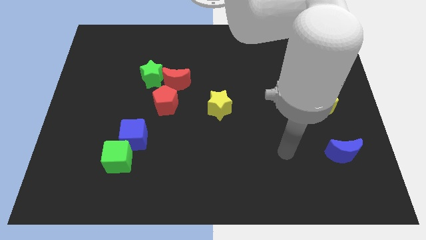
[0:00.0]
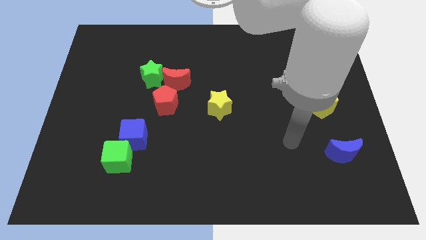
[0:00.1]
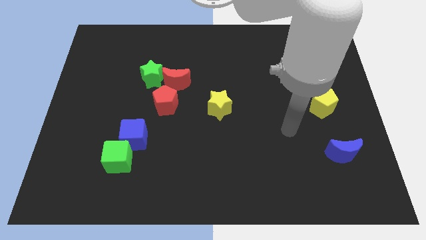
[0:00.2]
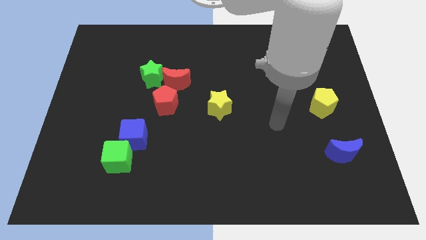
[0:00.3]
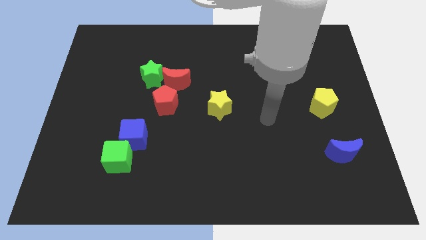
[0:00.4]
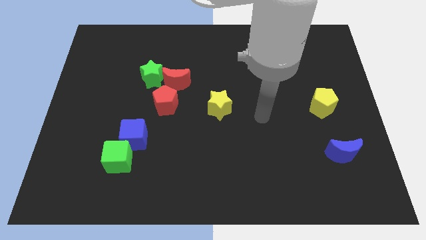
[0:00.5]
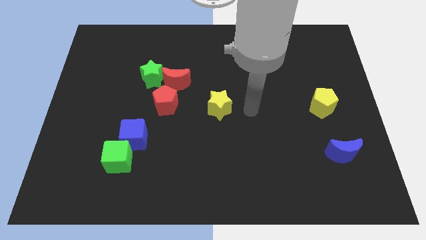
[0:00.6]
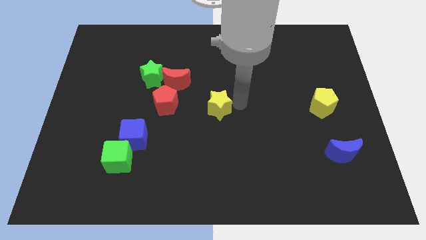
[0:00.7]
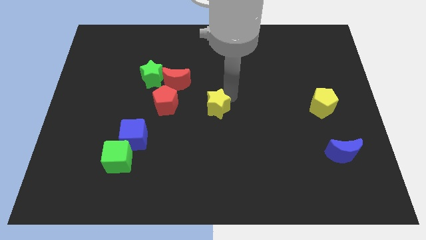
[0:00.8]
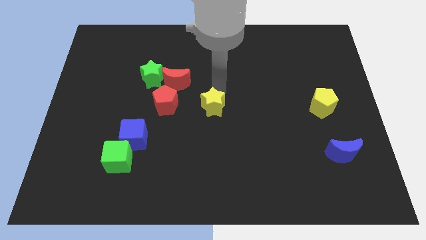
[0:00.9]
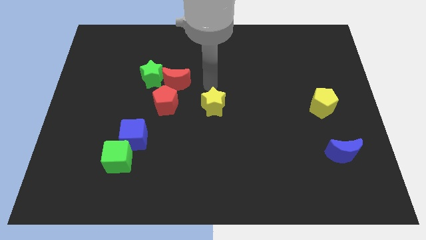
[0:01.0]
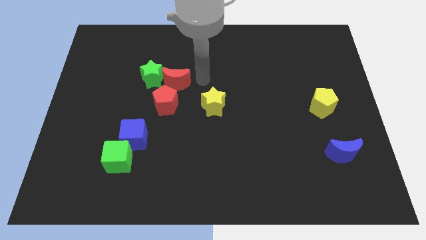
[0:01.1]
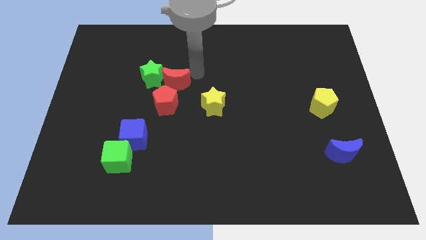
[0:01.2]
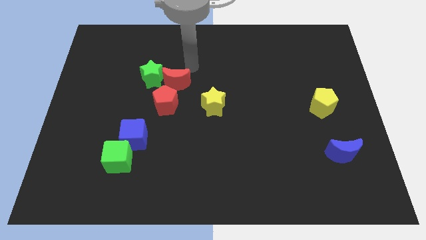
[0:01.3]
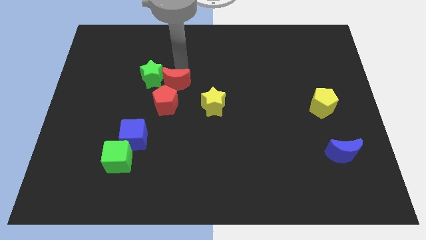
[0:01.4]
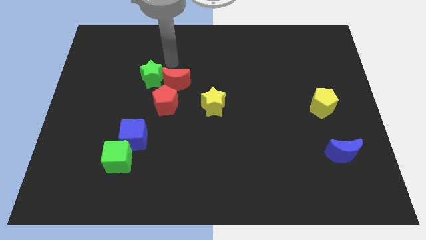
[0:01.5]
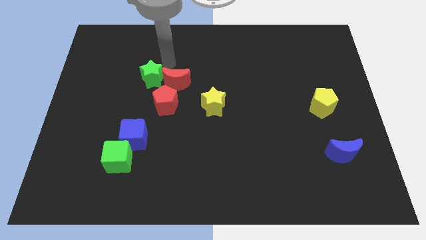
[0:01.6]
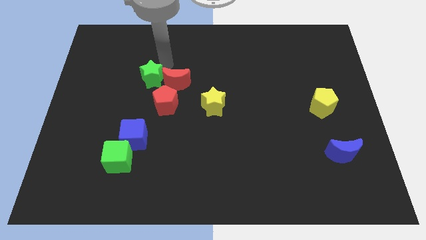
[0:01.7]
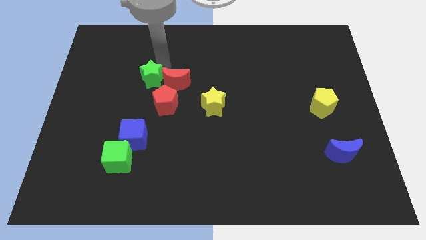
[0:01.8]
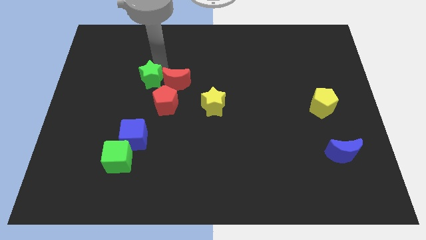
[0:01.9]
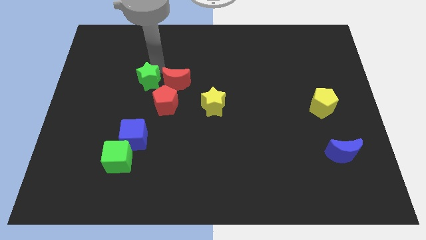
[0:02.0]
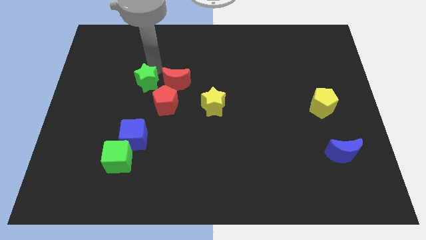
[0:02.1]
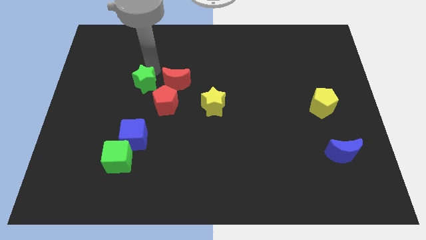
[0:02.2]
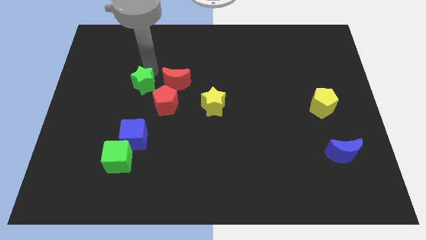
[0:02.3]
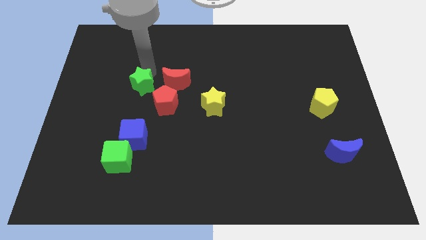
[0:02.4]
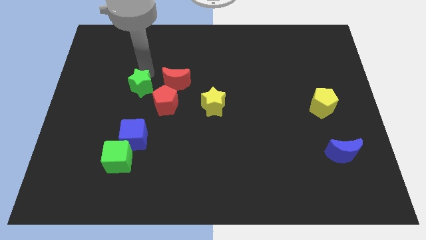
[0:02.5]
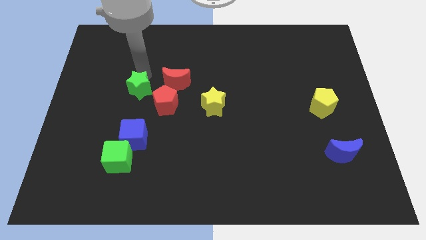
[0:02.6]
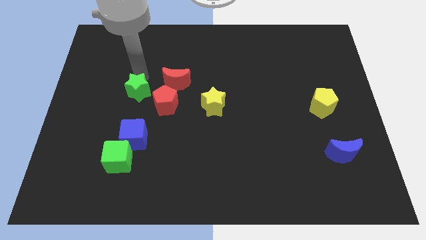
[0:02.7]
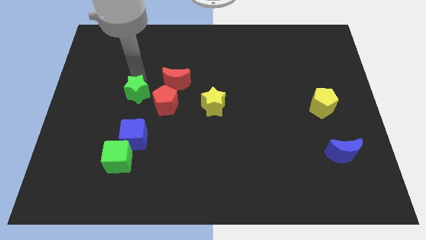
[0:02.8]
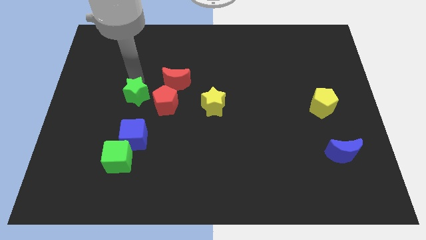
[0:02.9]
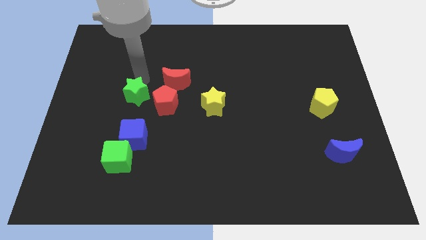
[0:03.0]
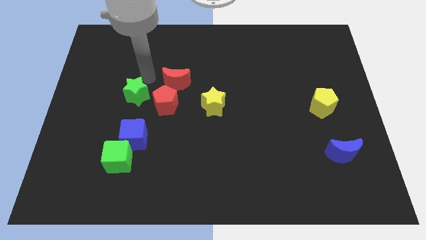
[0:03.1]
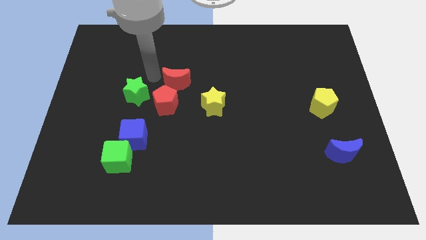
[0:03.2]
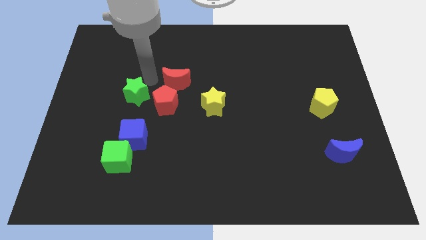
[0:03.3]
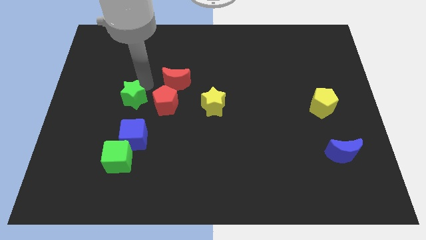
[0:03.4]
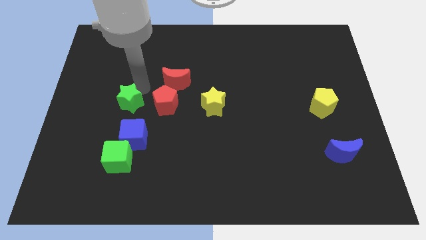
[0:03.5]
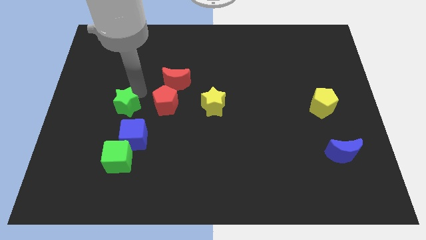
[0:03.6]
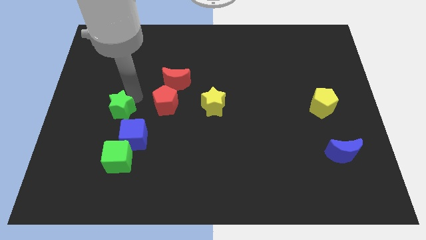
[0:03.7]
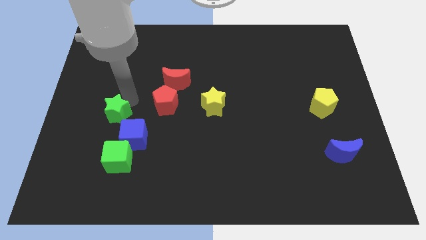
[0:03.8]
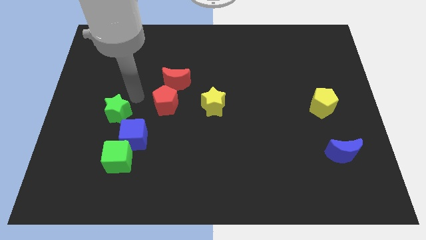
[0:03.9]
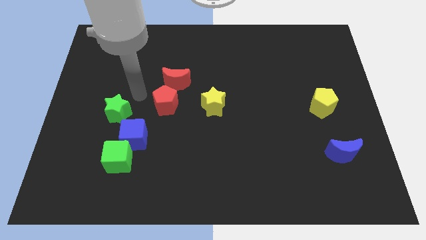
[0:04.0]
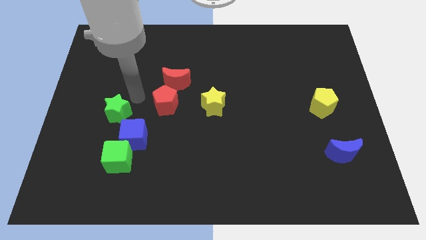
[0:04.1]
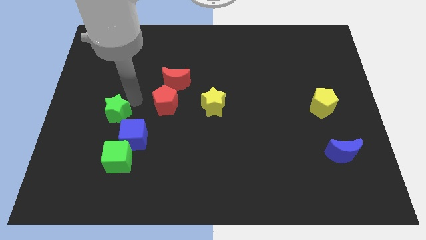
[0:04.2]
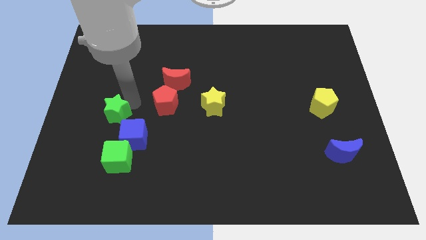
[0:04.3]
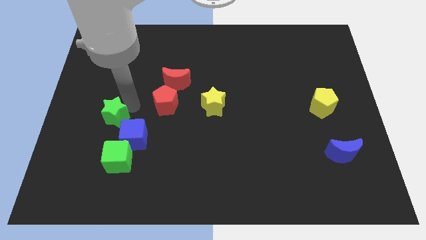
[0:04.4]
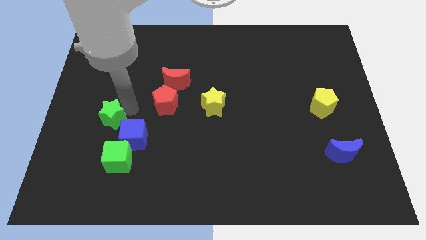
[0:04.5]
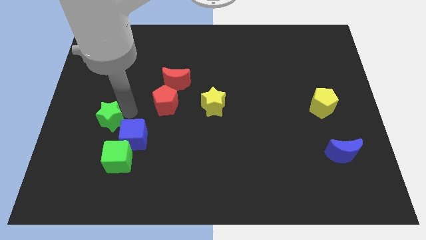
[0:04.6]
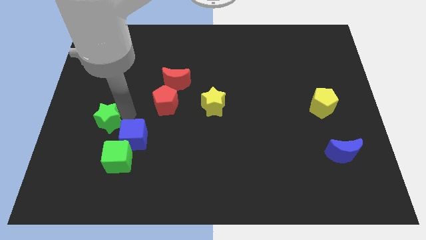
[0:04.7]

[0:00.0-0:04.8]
move the green star left of the blue cube

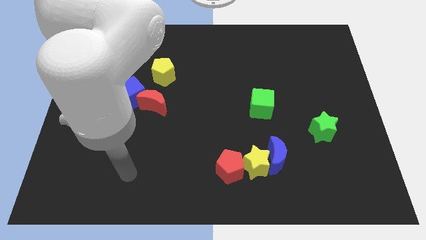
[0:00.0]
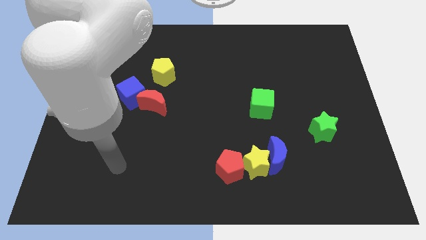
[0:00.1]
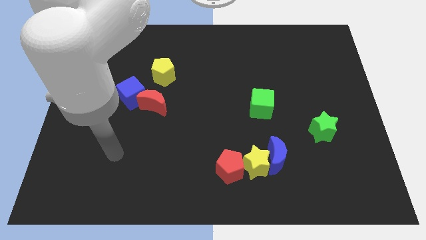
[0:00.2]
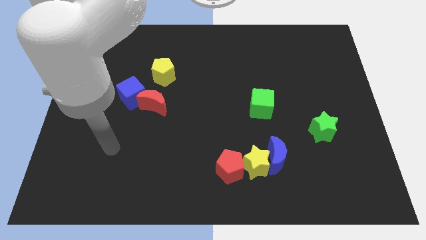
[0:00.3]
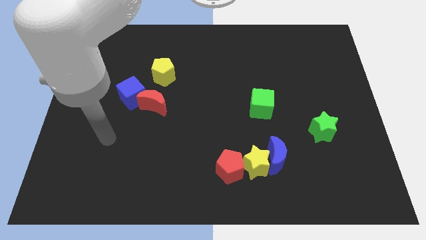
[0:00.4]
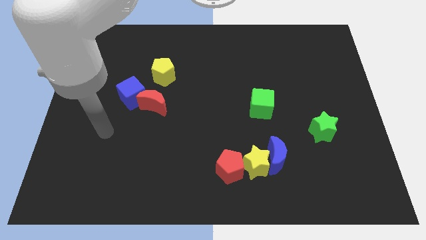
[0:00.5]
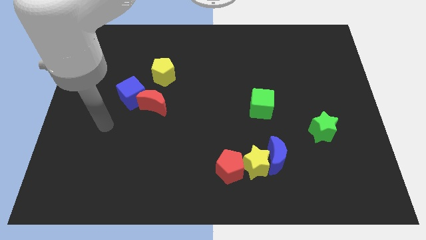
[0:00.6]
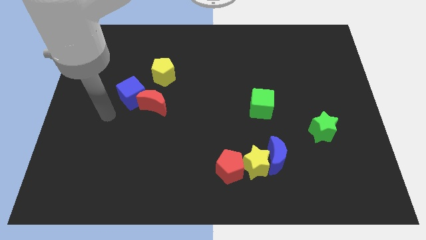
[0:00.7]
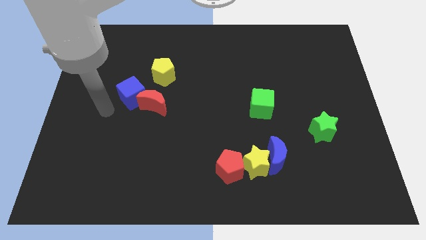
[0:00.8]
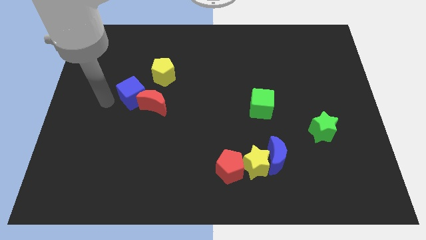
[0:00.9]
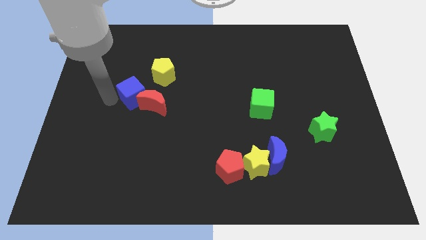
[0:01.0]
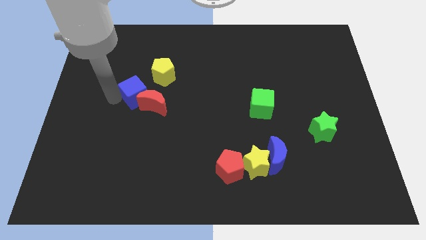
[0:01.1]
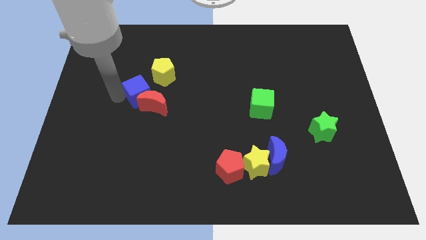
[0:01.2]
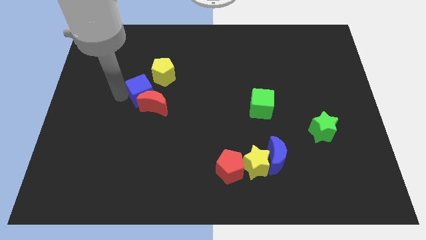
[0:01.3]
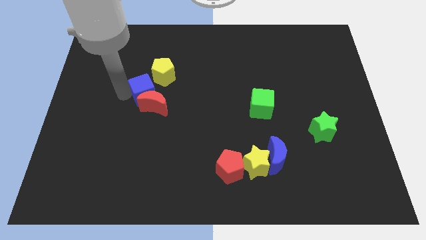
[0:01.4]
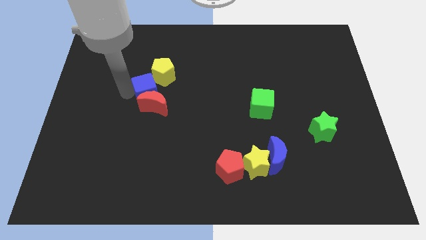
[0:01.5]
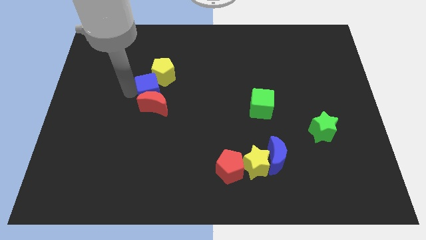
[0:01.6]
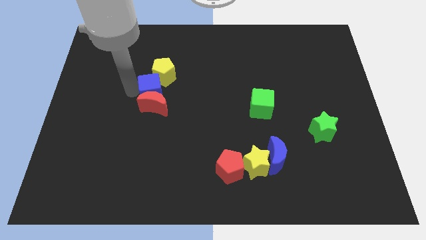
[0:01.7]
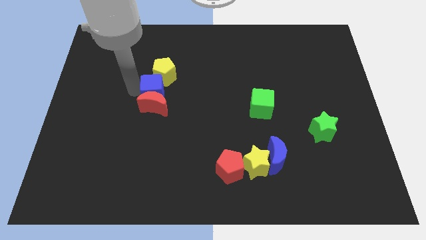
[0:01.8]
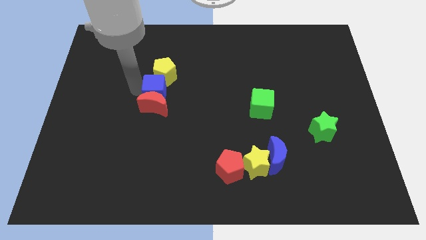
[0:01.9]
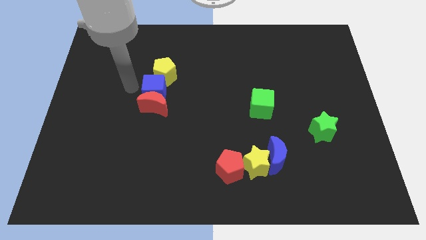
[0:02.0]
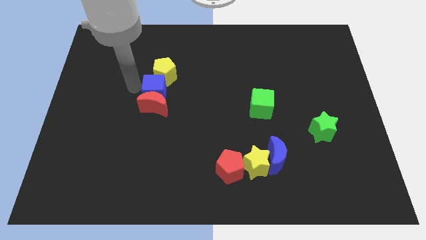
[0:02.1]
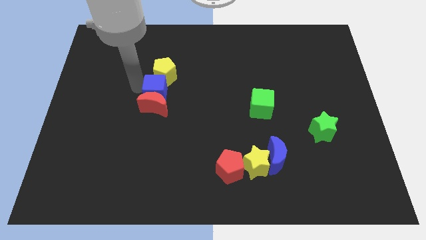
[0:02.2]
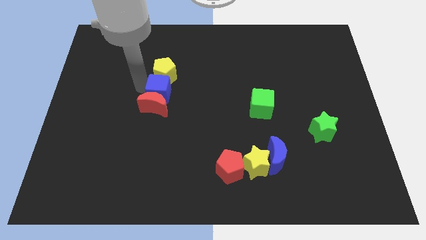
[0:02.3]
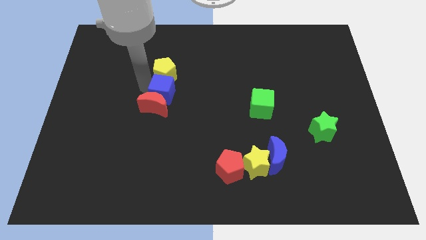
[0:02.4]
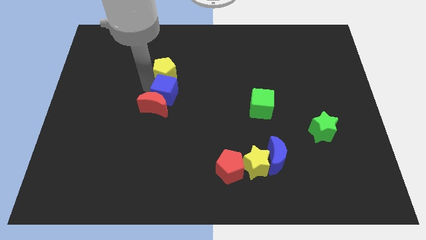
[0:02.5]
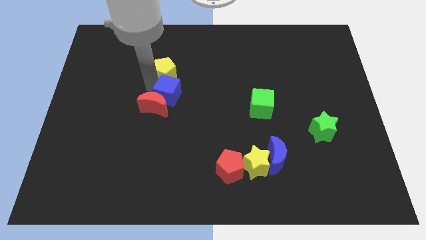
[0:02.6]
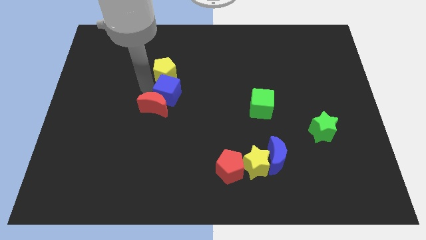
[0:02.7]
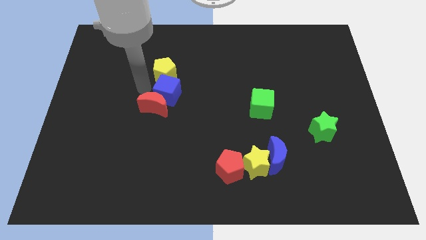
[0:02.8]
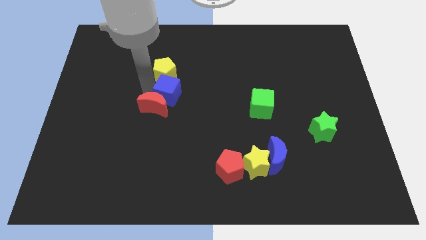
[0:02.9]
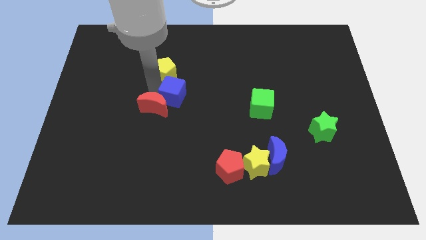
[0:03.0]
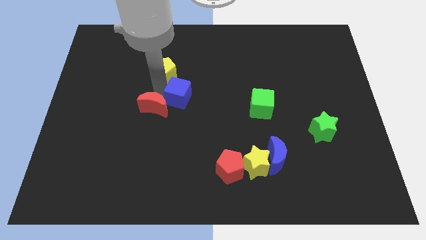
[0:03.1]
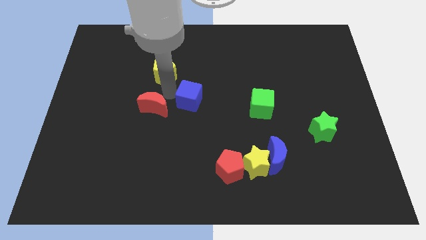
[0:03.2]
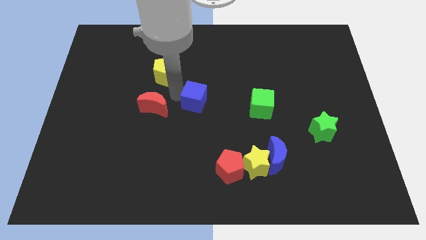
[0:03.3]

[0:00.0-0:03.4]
push the blue cube left of the green cube
